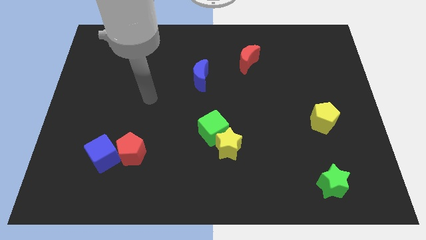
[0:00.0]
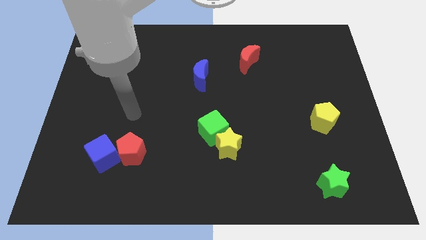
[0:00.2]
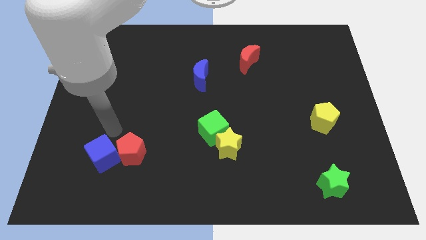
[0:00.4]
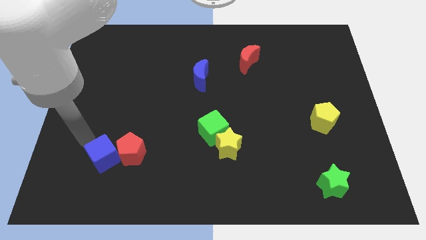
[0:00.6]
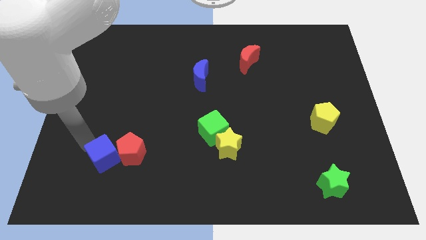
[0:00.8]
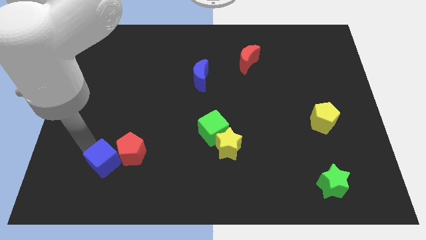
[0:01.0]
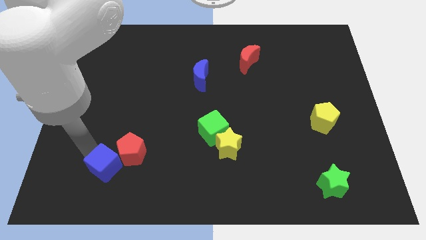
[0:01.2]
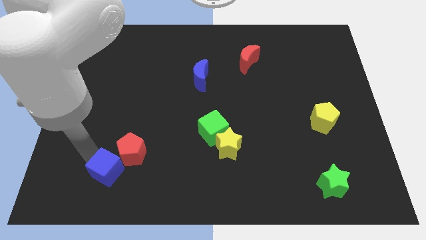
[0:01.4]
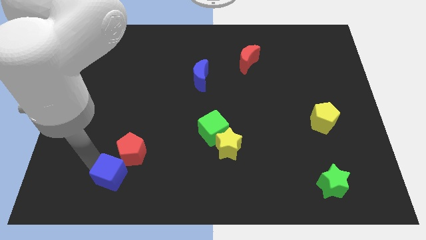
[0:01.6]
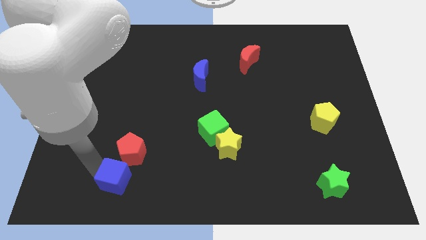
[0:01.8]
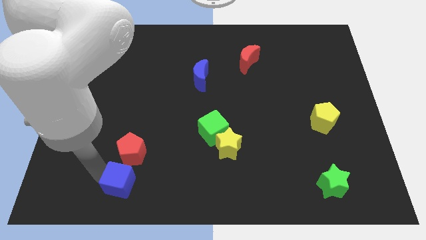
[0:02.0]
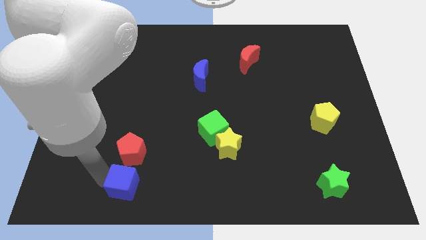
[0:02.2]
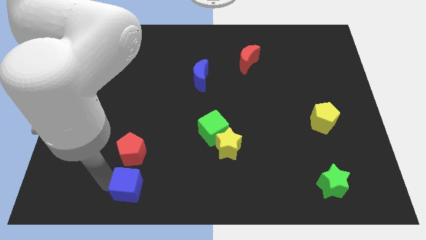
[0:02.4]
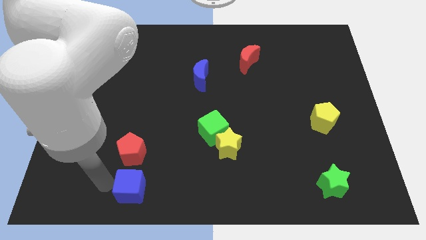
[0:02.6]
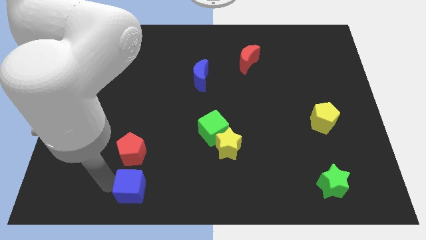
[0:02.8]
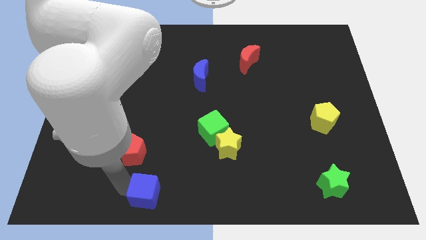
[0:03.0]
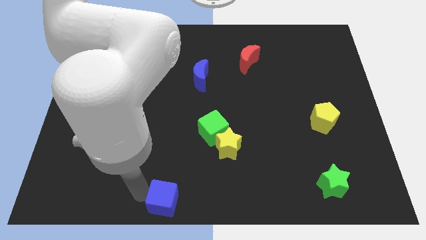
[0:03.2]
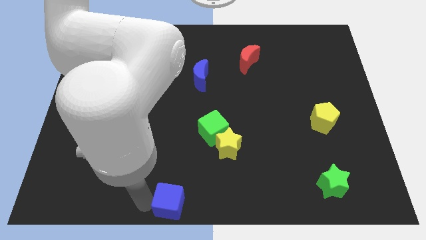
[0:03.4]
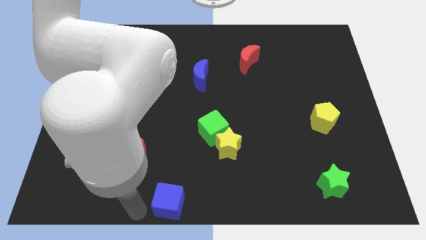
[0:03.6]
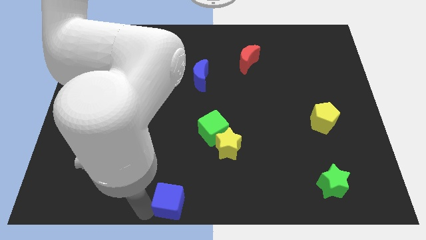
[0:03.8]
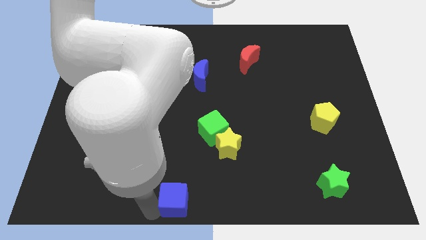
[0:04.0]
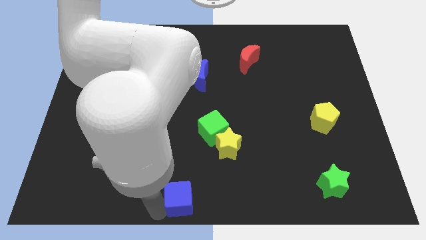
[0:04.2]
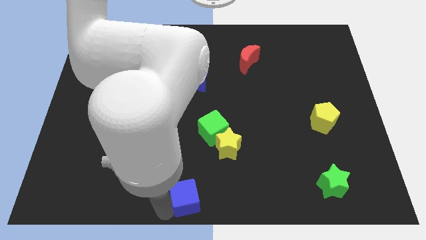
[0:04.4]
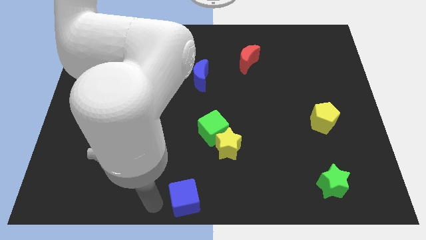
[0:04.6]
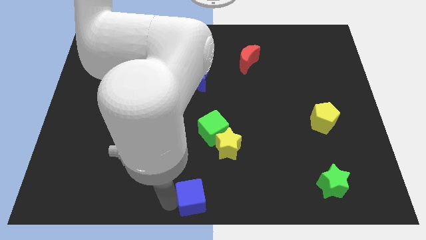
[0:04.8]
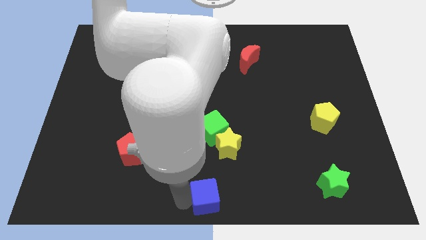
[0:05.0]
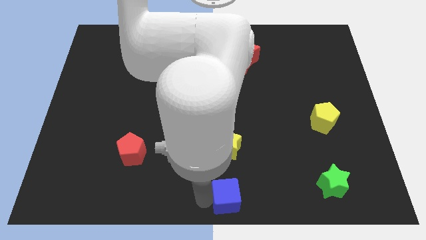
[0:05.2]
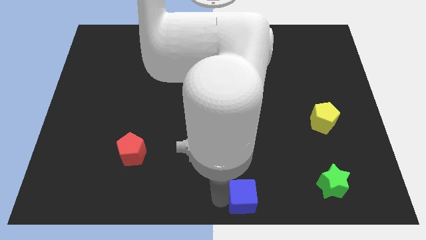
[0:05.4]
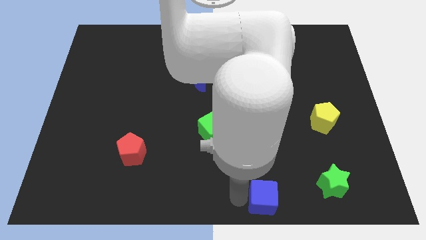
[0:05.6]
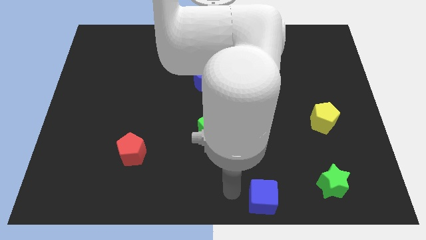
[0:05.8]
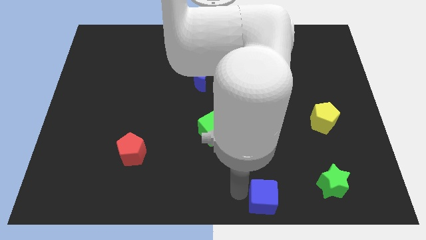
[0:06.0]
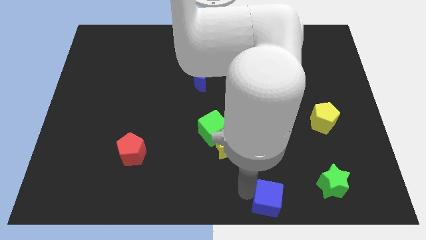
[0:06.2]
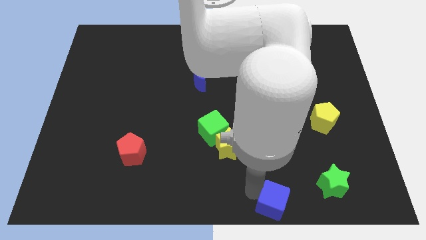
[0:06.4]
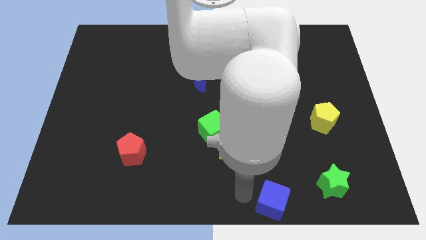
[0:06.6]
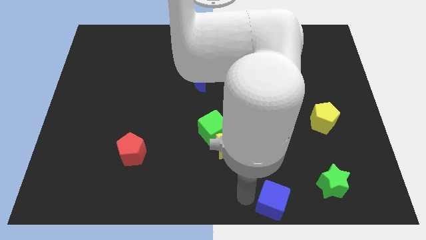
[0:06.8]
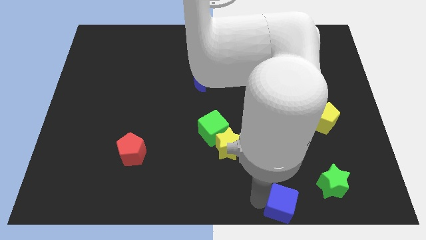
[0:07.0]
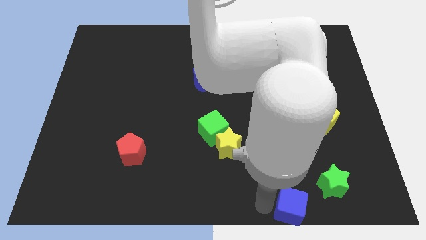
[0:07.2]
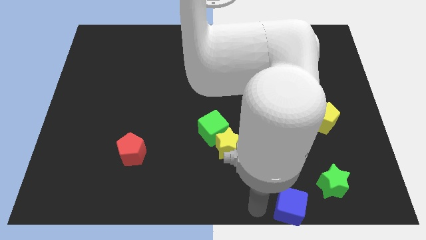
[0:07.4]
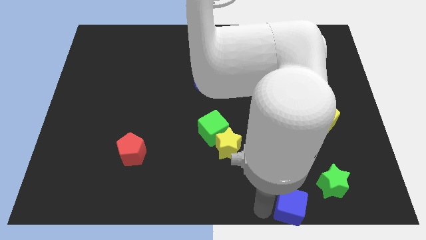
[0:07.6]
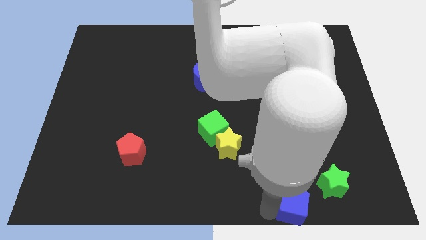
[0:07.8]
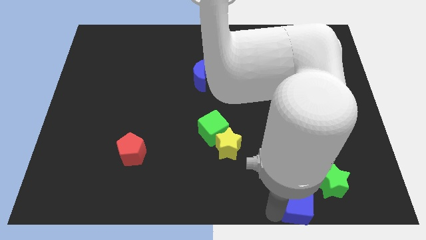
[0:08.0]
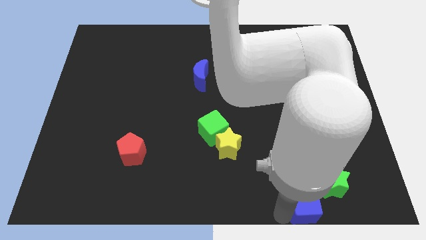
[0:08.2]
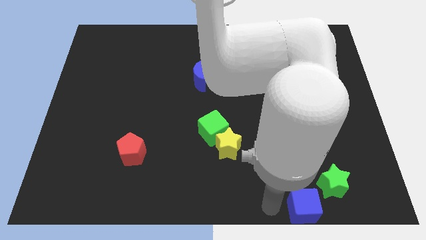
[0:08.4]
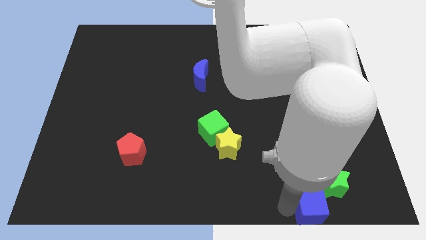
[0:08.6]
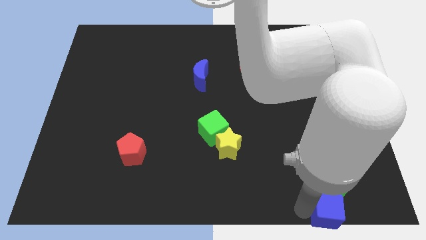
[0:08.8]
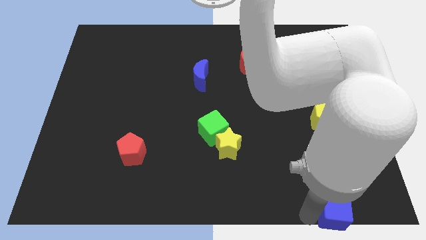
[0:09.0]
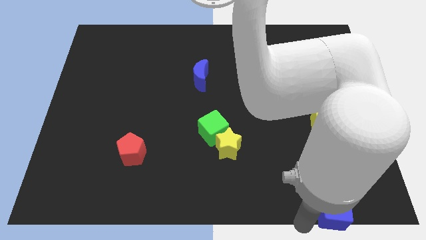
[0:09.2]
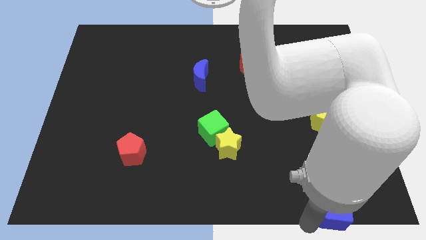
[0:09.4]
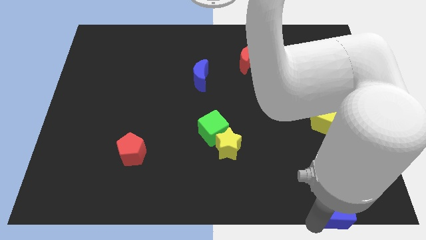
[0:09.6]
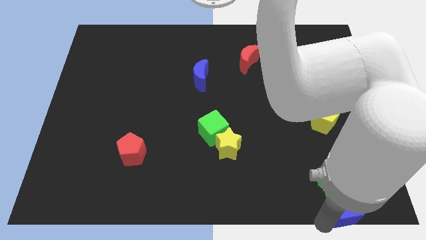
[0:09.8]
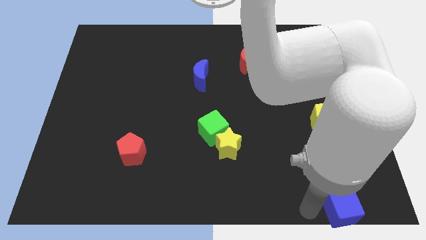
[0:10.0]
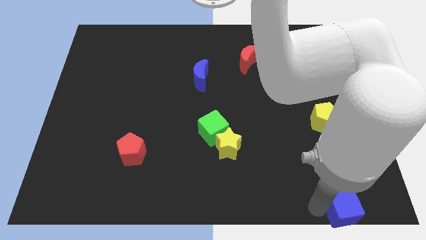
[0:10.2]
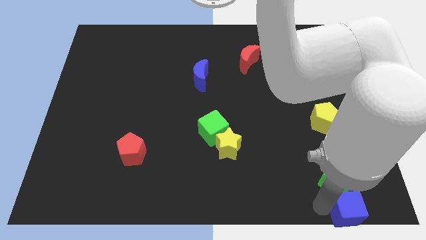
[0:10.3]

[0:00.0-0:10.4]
slide the blue cube to the bottom right of the board

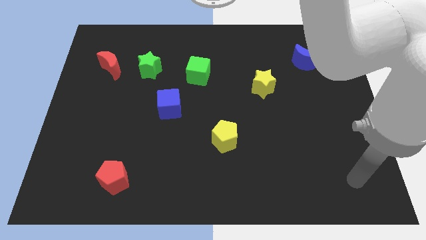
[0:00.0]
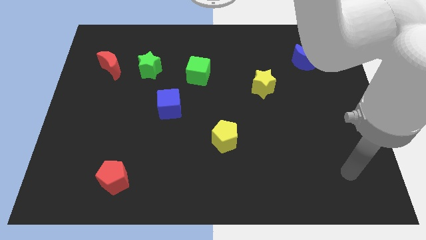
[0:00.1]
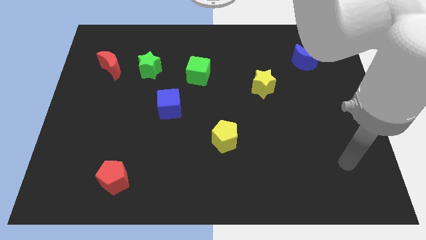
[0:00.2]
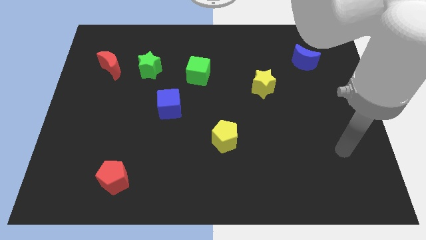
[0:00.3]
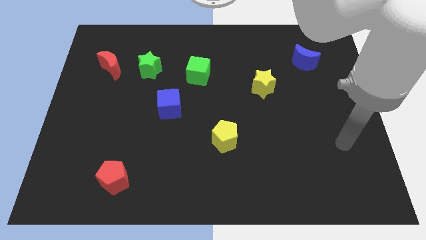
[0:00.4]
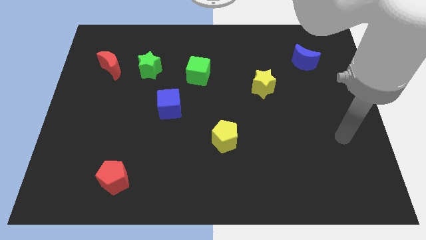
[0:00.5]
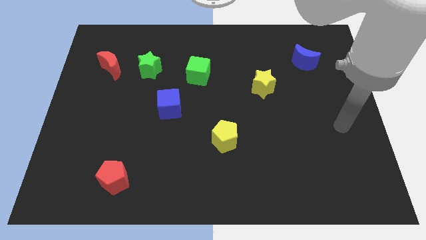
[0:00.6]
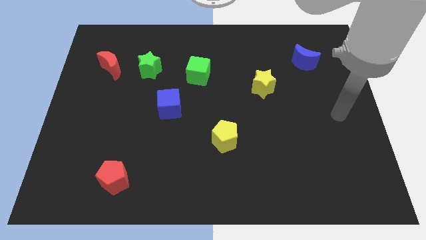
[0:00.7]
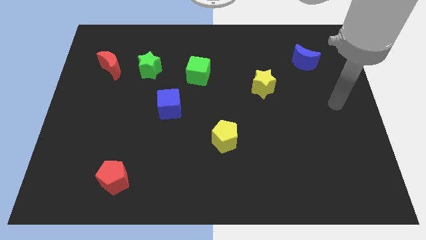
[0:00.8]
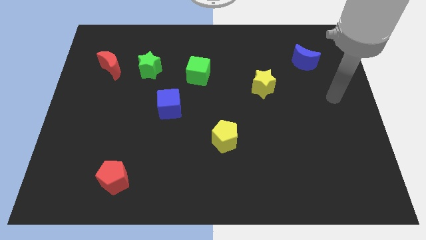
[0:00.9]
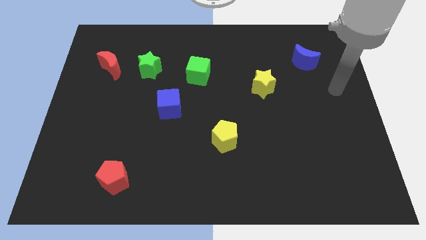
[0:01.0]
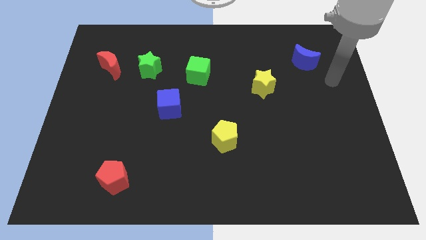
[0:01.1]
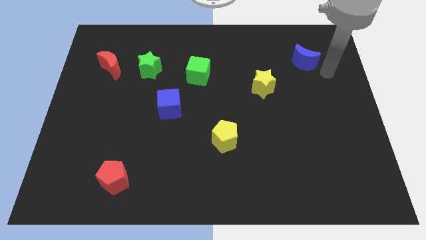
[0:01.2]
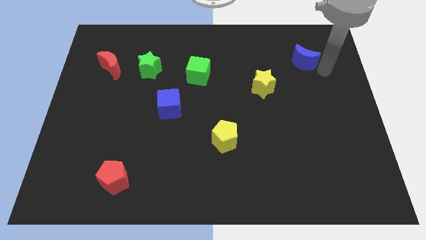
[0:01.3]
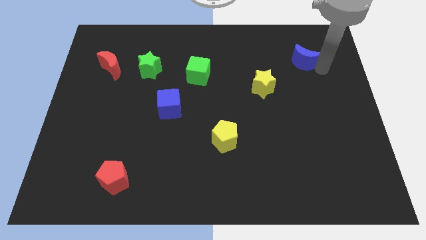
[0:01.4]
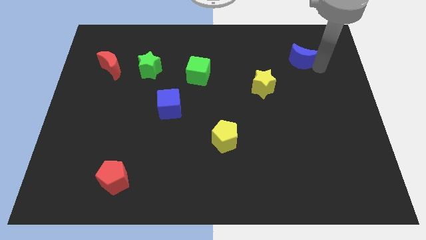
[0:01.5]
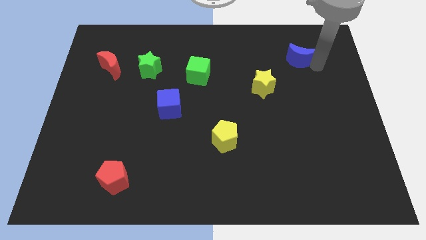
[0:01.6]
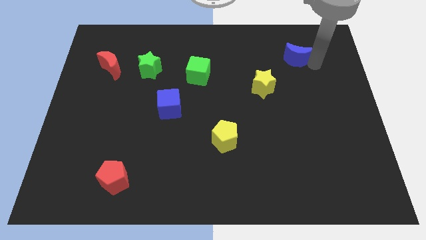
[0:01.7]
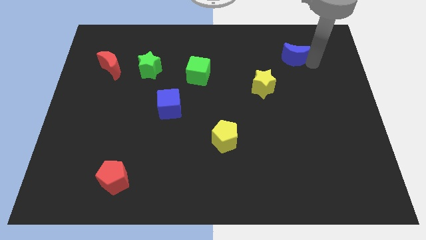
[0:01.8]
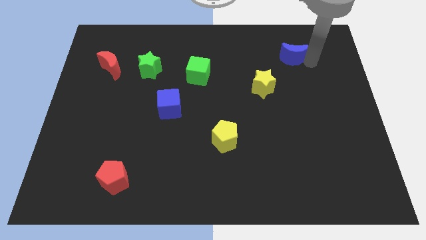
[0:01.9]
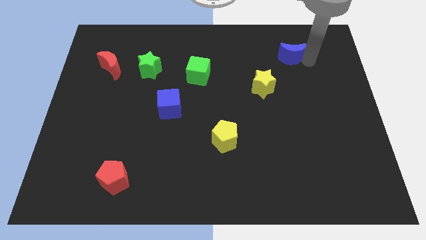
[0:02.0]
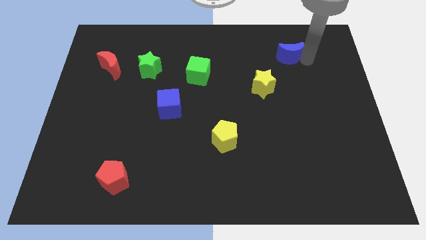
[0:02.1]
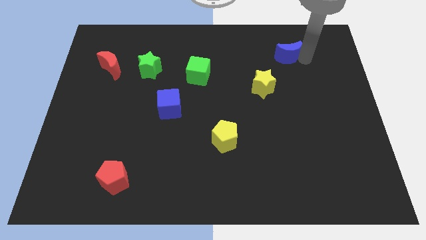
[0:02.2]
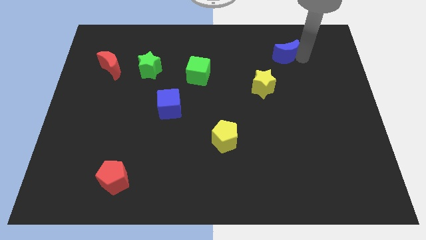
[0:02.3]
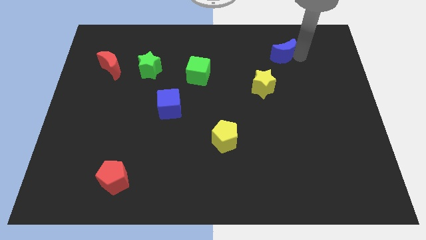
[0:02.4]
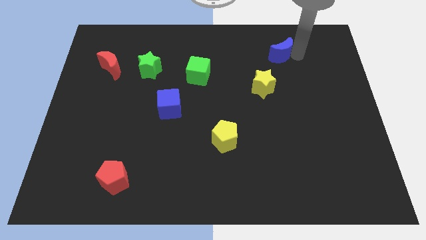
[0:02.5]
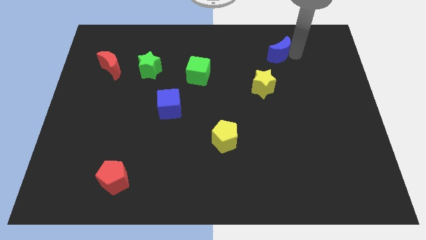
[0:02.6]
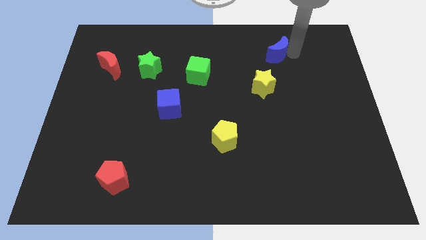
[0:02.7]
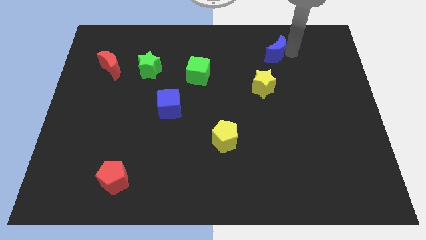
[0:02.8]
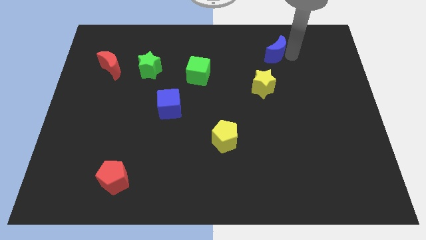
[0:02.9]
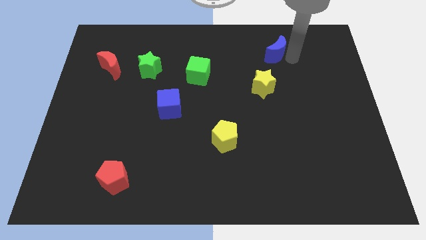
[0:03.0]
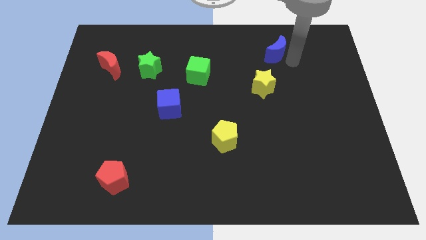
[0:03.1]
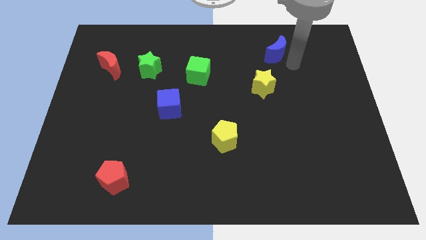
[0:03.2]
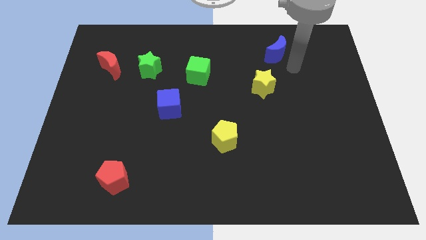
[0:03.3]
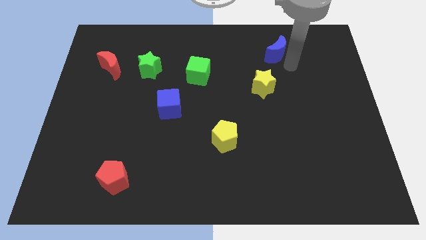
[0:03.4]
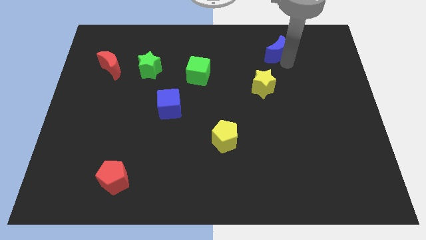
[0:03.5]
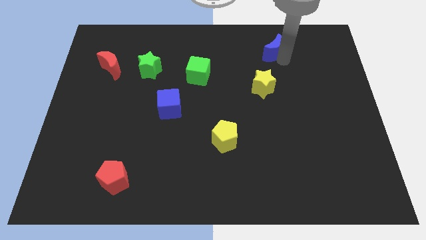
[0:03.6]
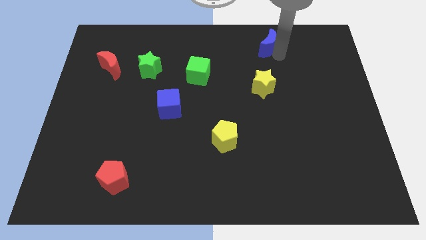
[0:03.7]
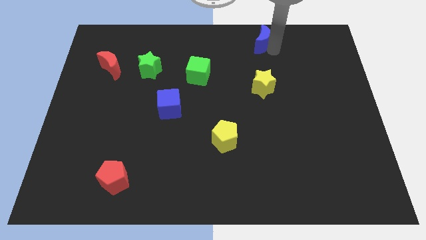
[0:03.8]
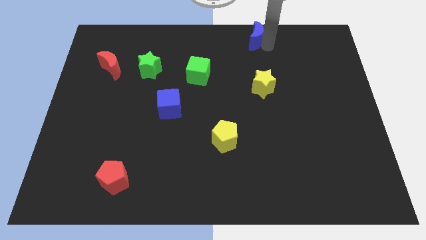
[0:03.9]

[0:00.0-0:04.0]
put the blue moon to the top
